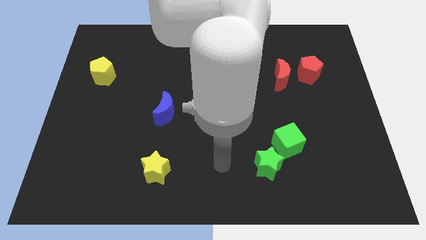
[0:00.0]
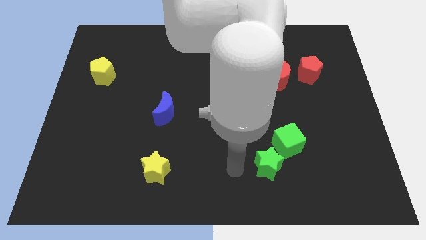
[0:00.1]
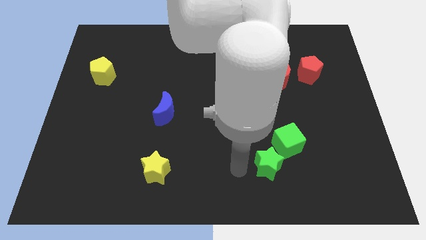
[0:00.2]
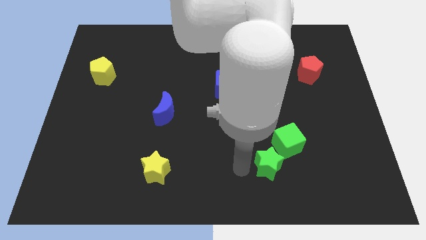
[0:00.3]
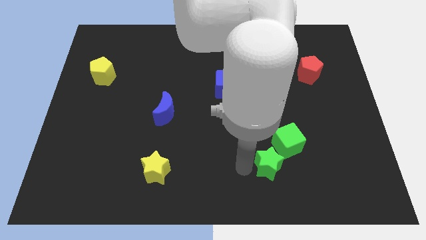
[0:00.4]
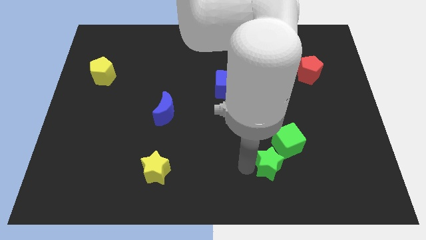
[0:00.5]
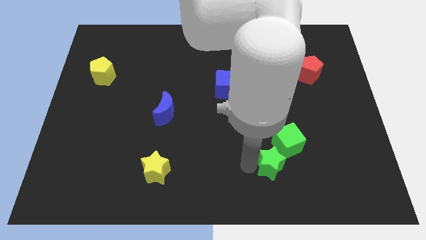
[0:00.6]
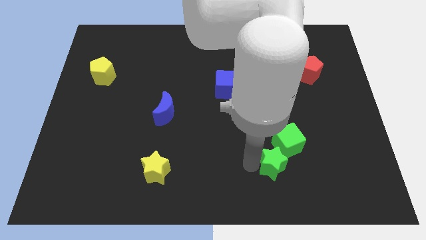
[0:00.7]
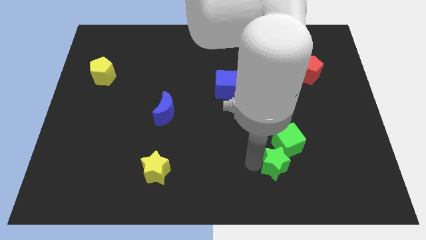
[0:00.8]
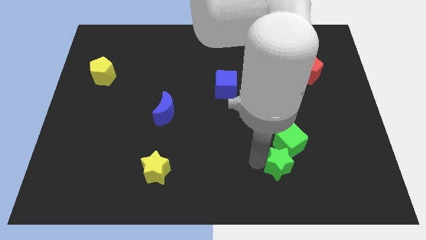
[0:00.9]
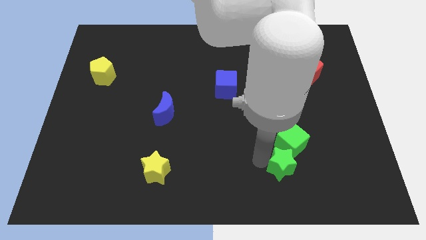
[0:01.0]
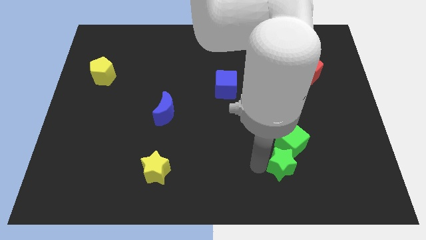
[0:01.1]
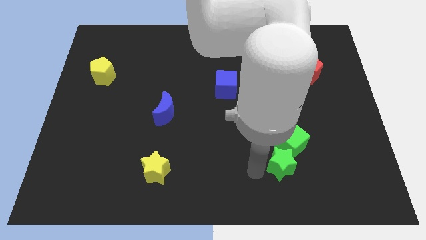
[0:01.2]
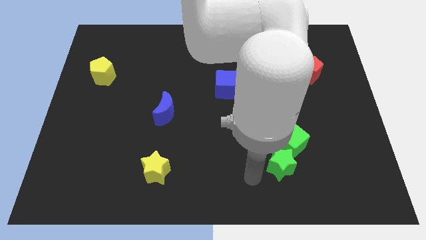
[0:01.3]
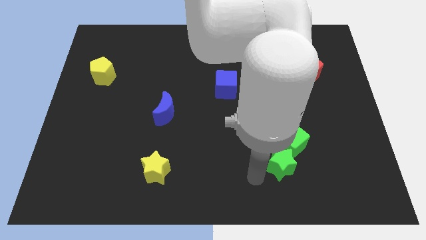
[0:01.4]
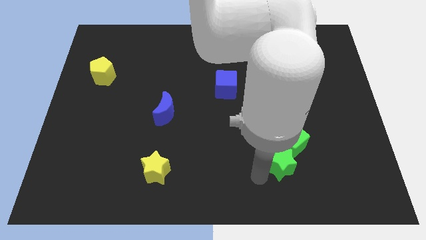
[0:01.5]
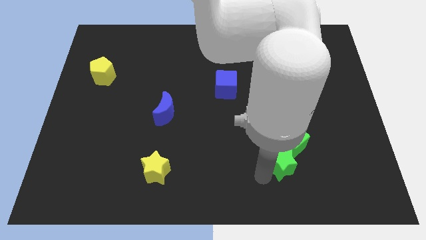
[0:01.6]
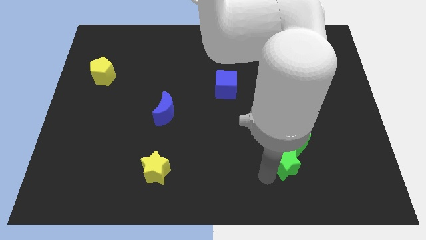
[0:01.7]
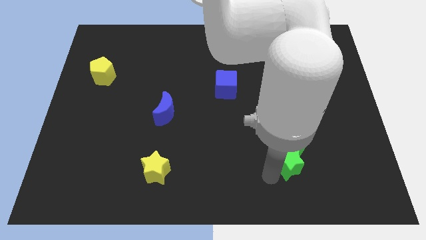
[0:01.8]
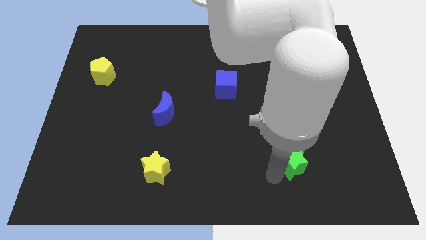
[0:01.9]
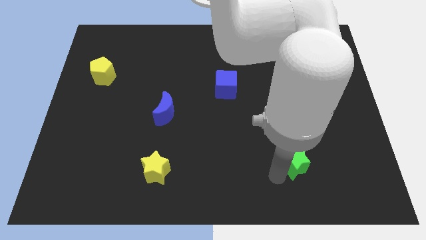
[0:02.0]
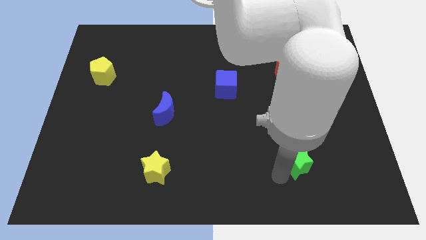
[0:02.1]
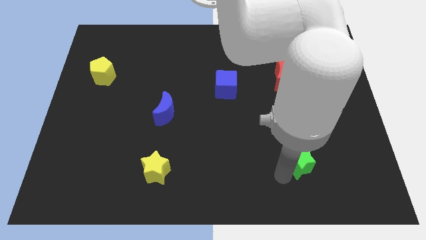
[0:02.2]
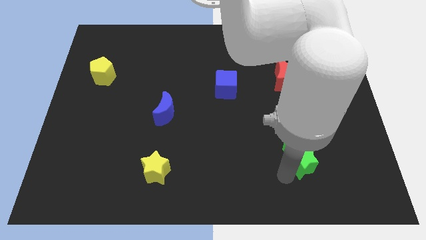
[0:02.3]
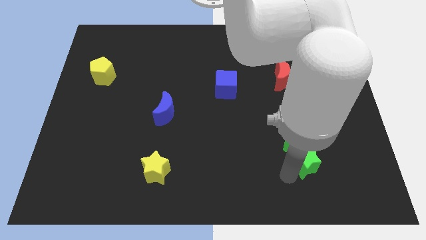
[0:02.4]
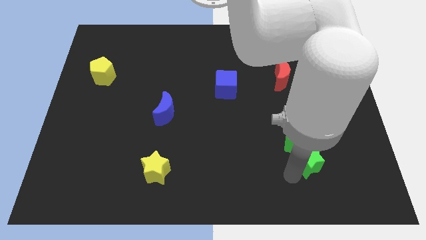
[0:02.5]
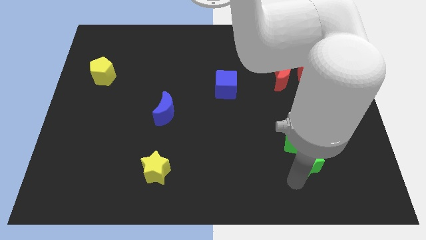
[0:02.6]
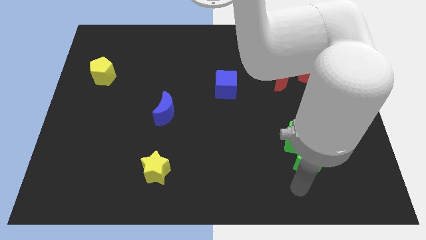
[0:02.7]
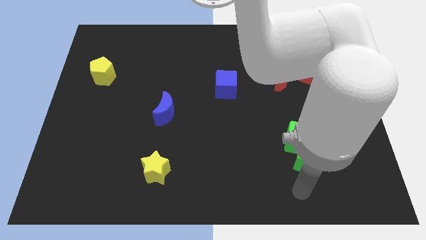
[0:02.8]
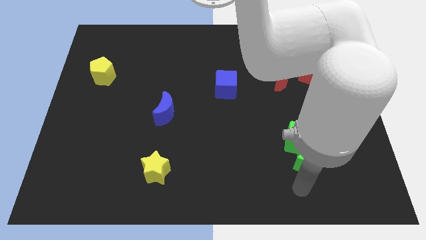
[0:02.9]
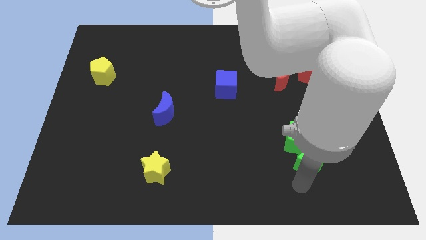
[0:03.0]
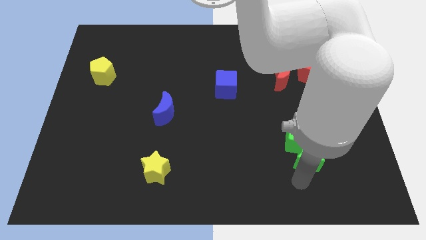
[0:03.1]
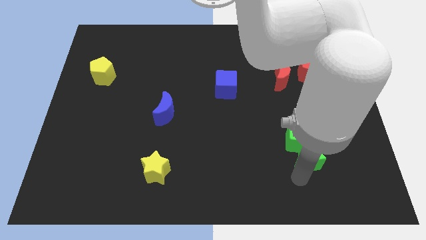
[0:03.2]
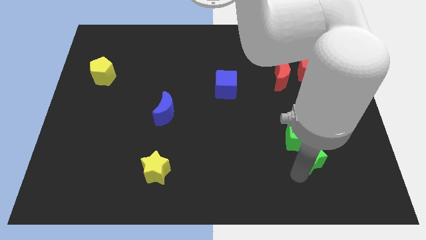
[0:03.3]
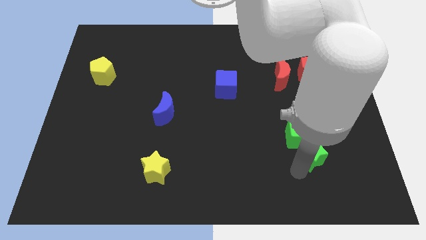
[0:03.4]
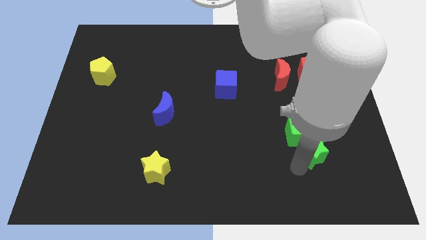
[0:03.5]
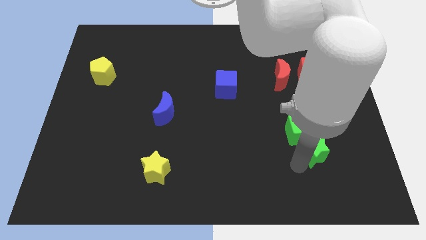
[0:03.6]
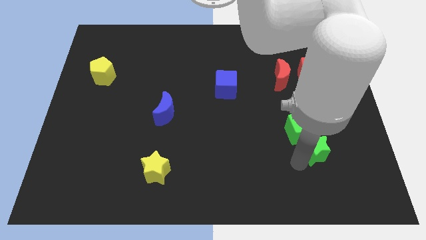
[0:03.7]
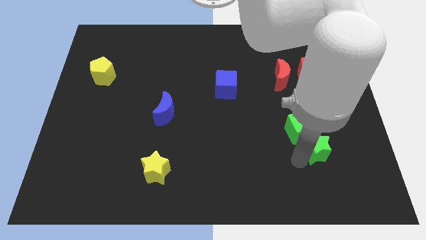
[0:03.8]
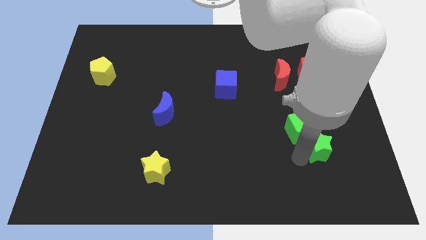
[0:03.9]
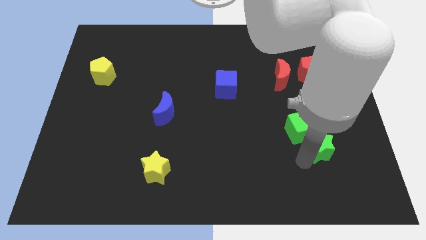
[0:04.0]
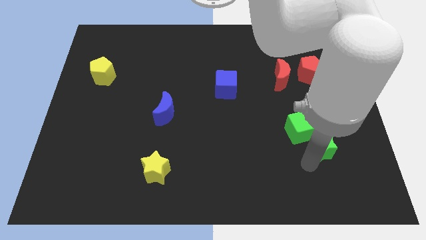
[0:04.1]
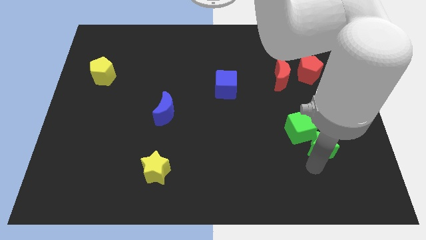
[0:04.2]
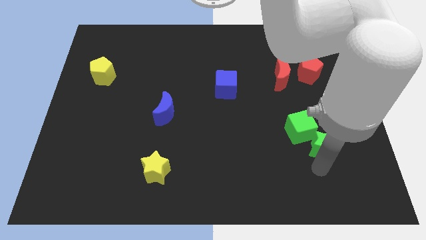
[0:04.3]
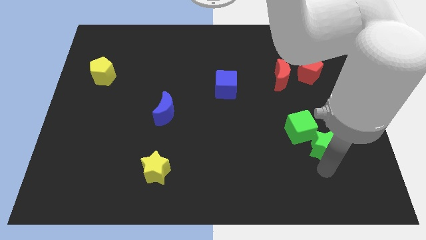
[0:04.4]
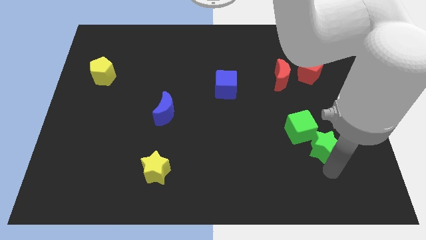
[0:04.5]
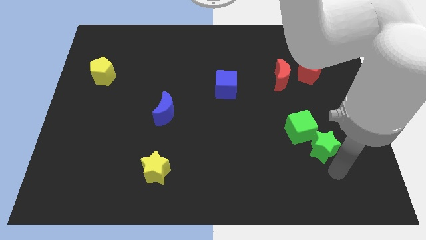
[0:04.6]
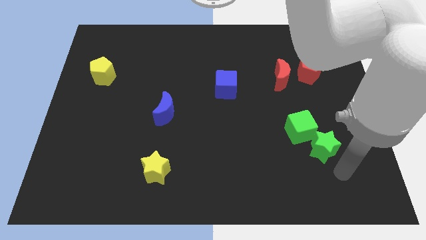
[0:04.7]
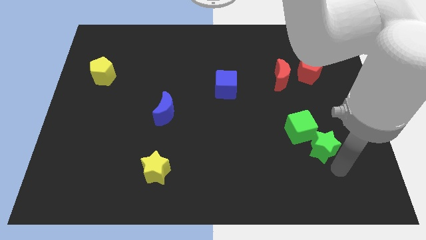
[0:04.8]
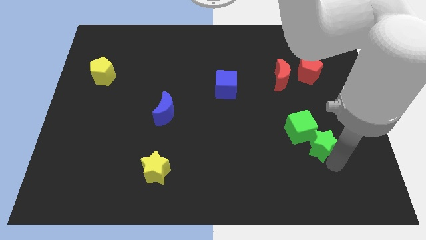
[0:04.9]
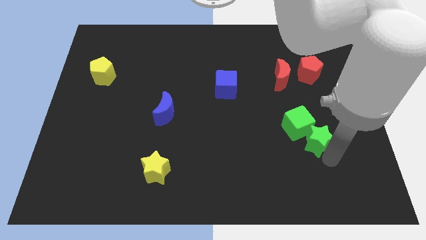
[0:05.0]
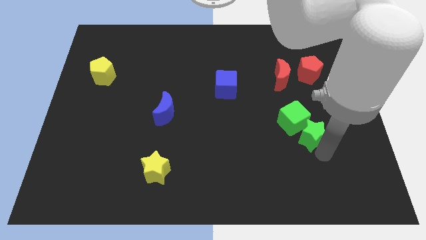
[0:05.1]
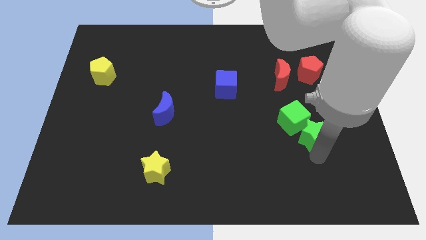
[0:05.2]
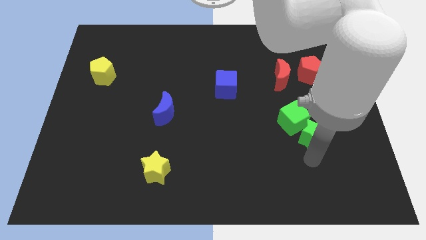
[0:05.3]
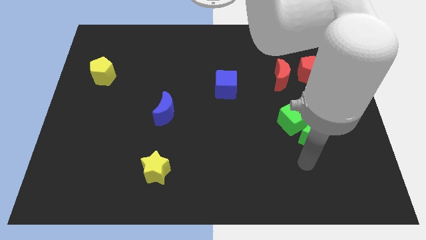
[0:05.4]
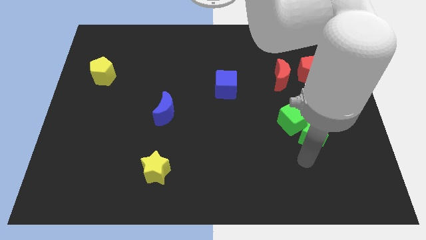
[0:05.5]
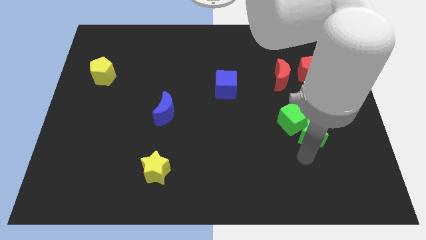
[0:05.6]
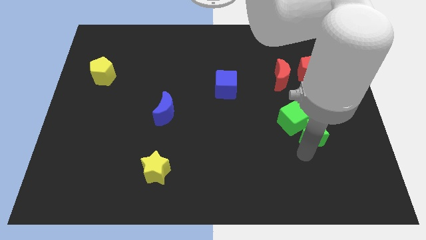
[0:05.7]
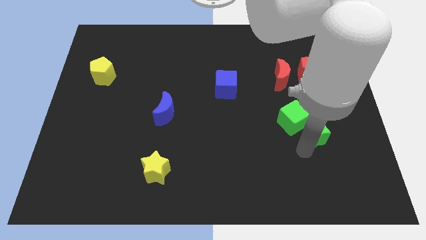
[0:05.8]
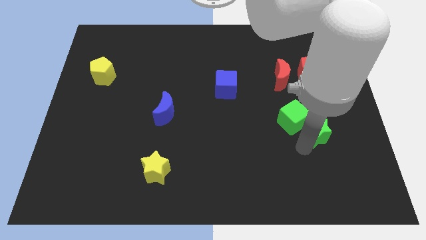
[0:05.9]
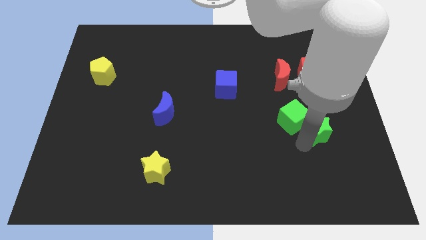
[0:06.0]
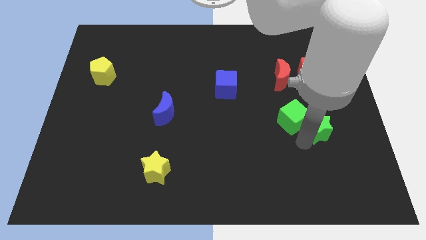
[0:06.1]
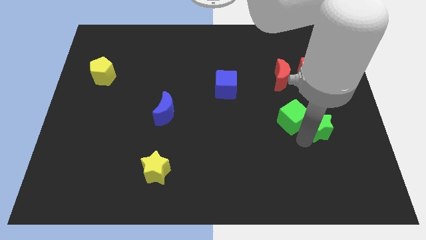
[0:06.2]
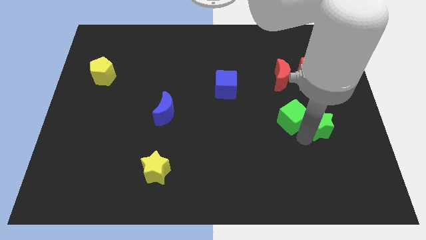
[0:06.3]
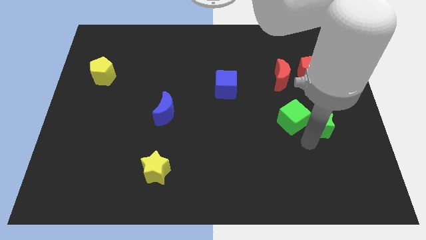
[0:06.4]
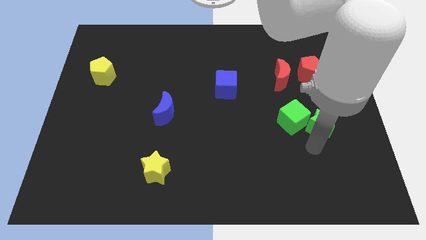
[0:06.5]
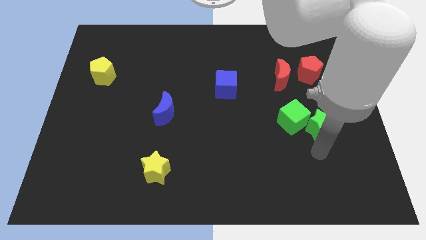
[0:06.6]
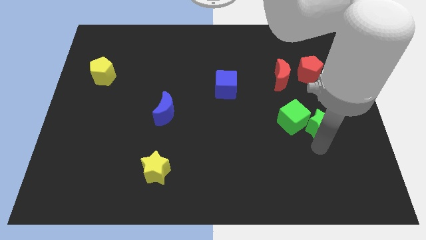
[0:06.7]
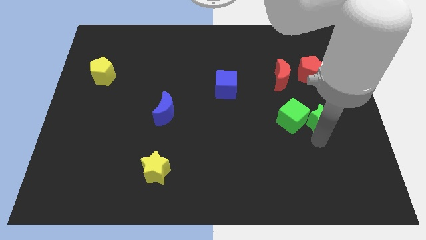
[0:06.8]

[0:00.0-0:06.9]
push the green star below the red pentagon
